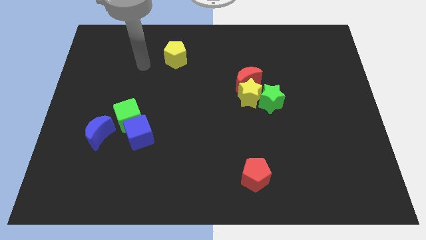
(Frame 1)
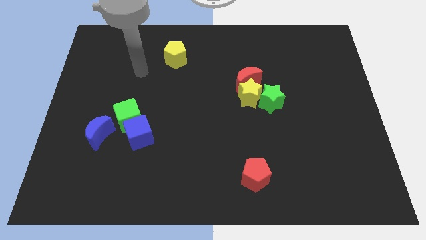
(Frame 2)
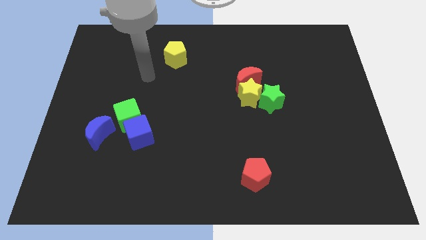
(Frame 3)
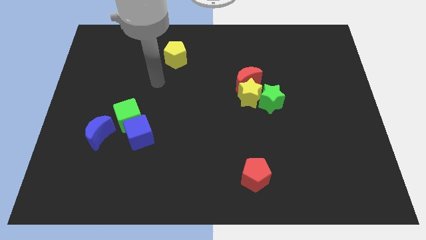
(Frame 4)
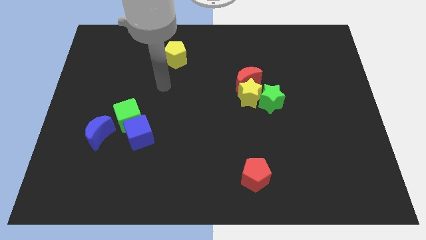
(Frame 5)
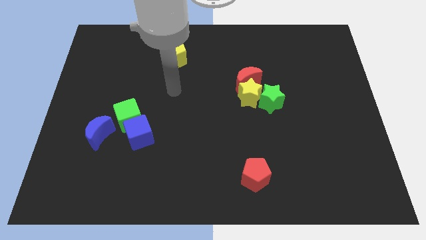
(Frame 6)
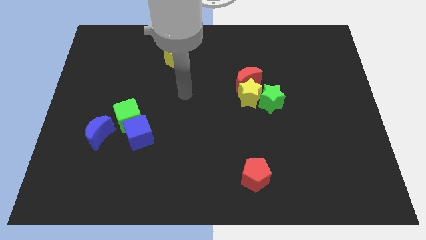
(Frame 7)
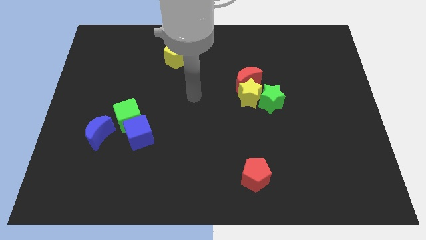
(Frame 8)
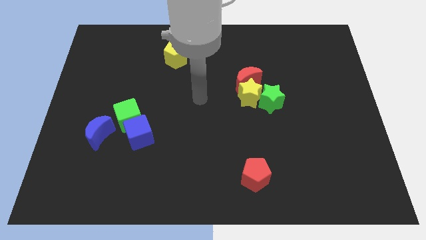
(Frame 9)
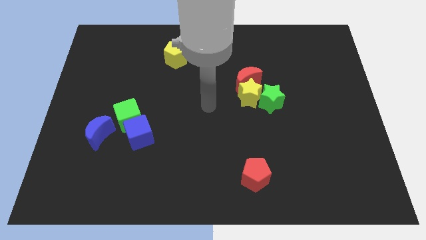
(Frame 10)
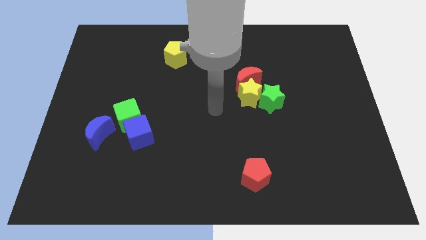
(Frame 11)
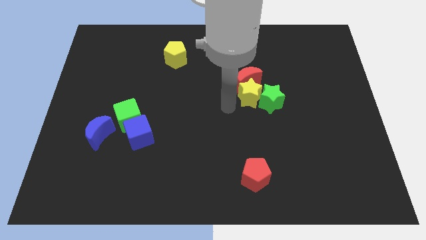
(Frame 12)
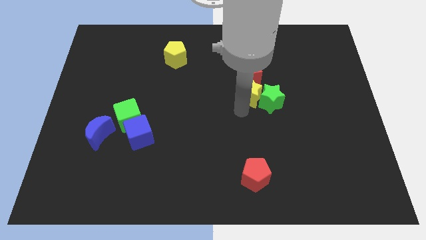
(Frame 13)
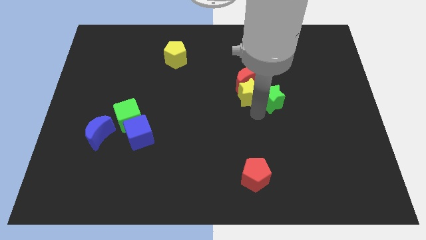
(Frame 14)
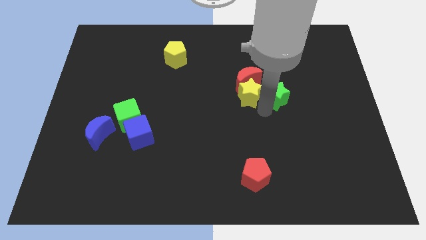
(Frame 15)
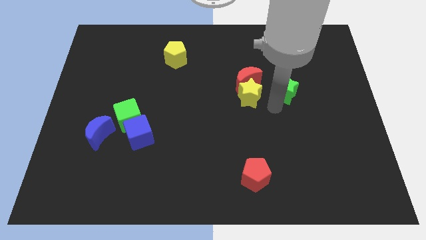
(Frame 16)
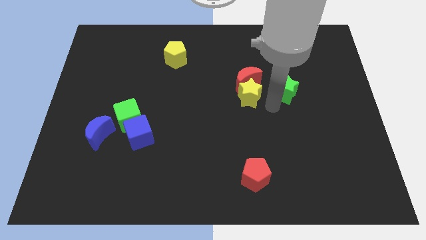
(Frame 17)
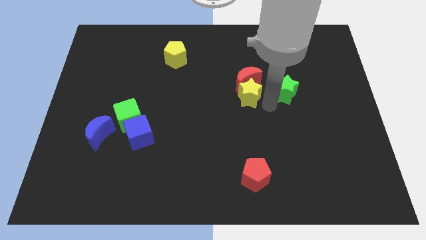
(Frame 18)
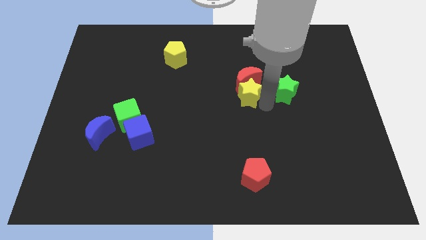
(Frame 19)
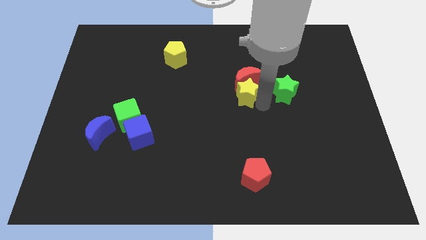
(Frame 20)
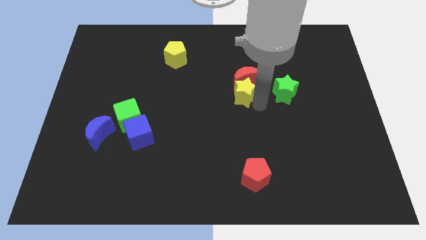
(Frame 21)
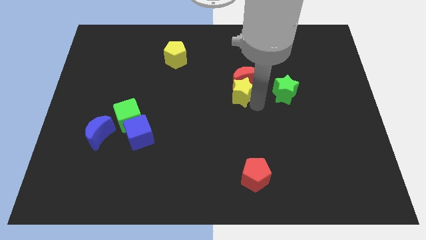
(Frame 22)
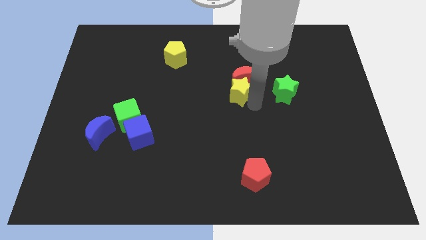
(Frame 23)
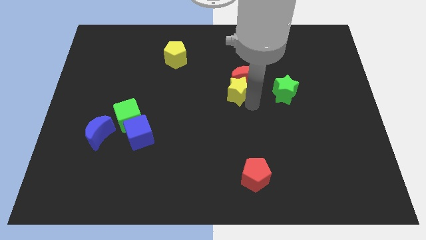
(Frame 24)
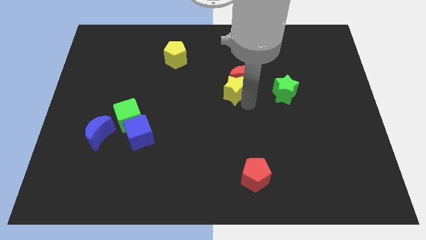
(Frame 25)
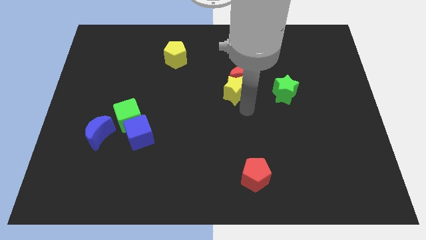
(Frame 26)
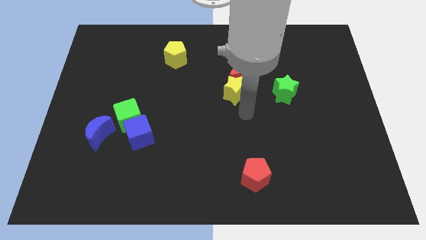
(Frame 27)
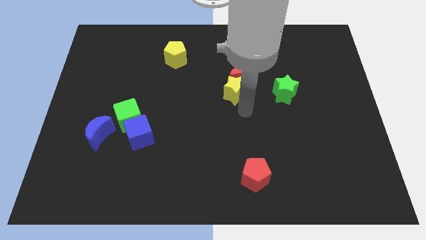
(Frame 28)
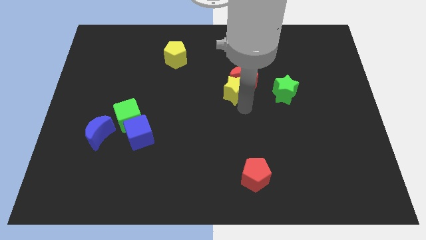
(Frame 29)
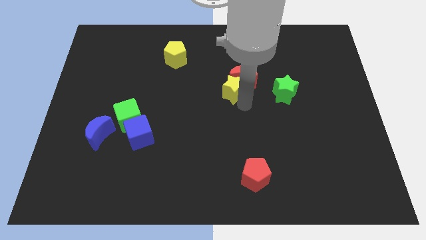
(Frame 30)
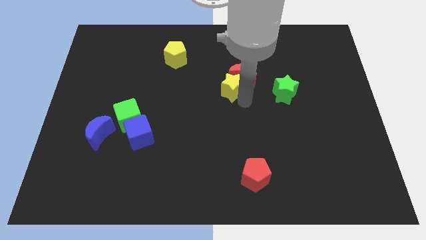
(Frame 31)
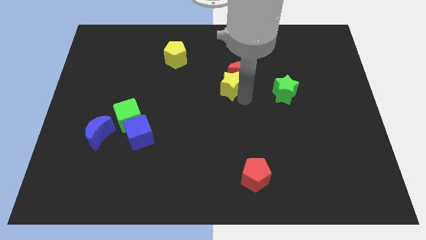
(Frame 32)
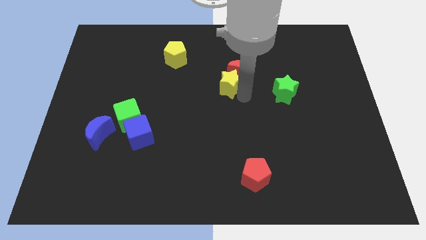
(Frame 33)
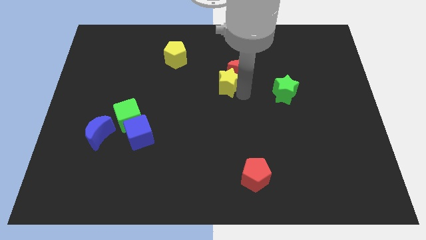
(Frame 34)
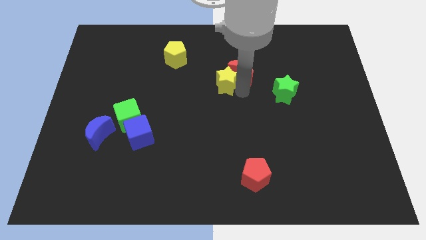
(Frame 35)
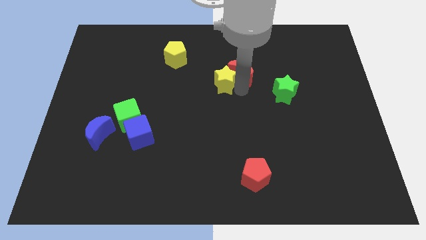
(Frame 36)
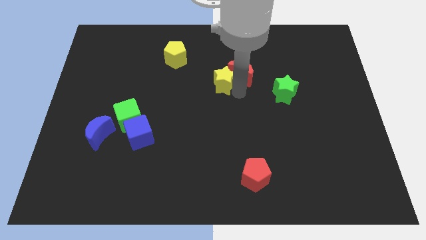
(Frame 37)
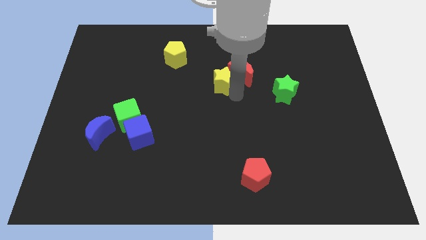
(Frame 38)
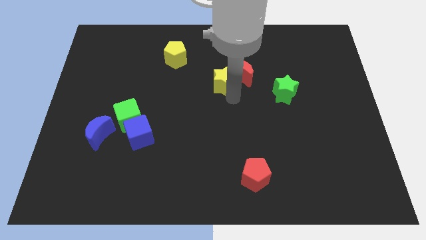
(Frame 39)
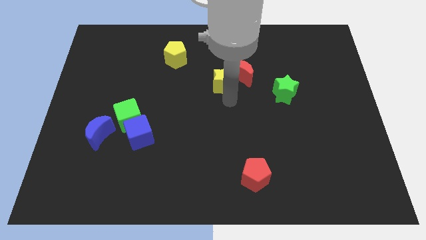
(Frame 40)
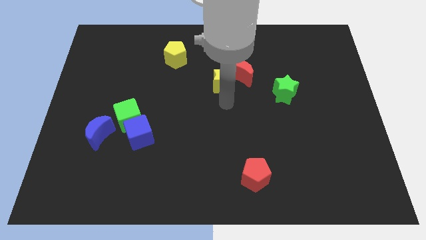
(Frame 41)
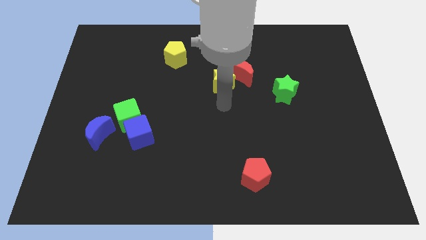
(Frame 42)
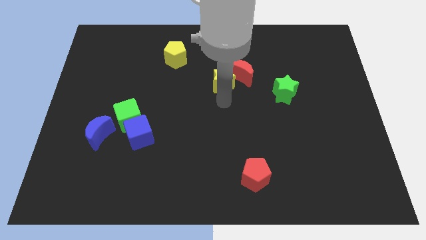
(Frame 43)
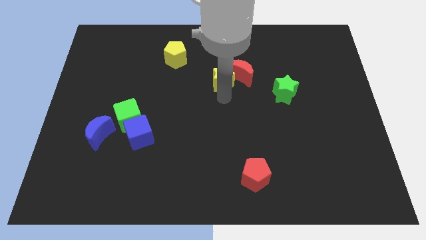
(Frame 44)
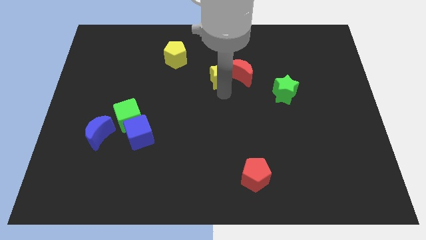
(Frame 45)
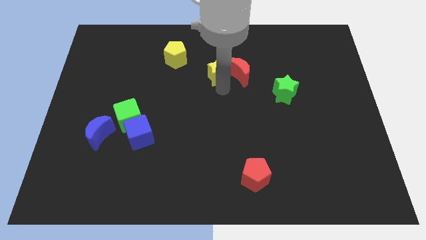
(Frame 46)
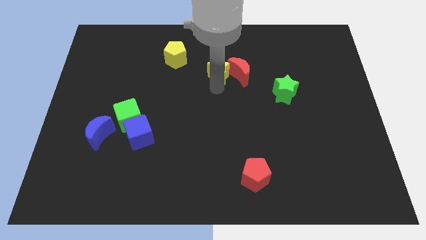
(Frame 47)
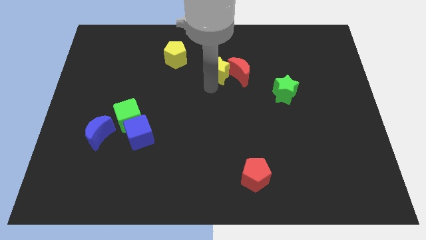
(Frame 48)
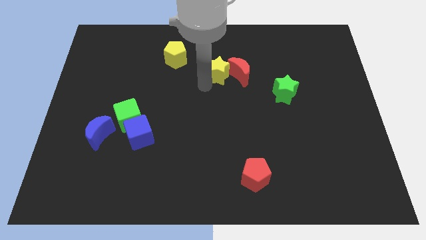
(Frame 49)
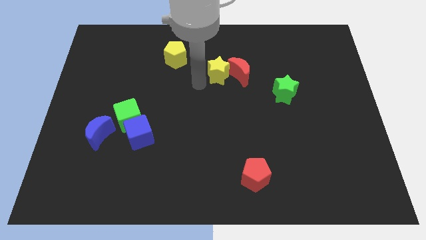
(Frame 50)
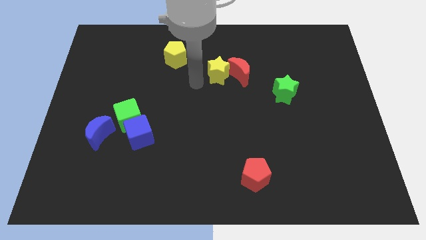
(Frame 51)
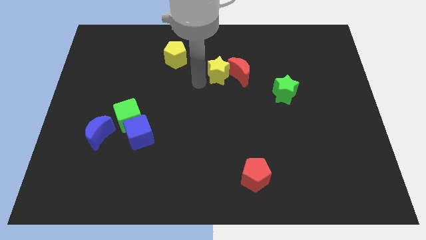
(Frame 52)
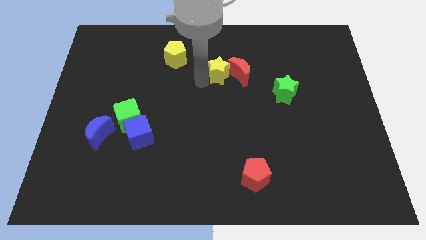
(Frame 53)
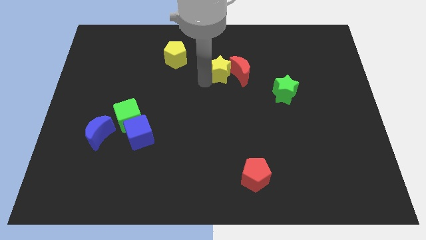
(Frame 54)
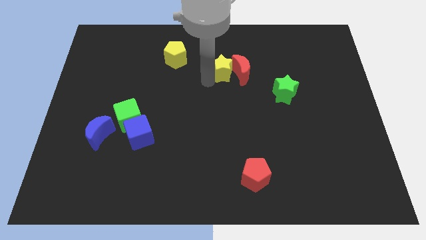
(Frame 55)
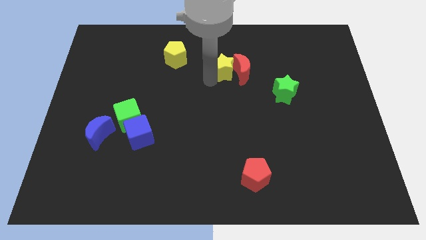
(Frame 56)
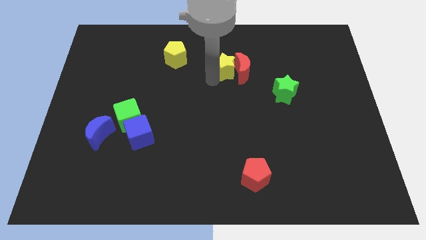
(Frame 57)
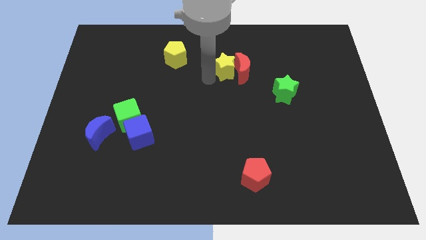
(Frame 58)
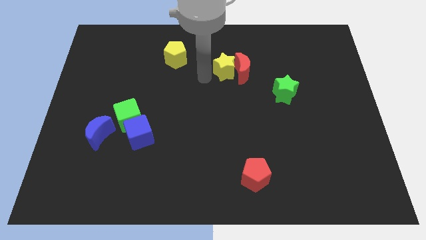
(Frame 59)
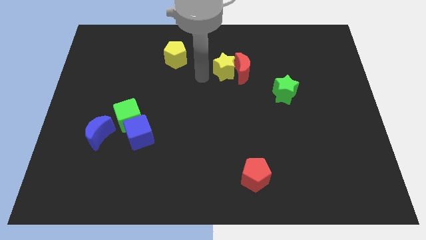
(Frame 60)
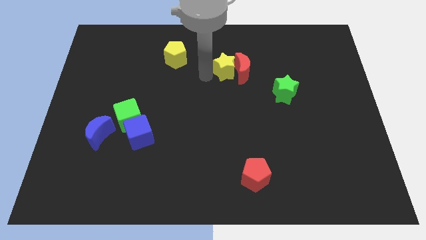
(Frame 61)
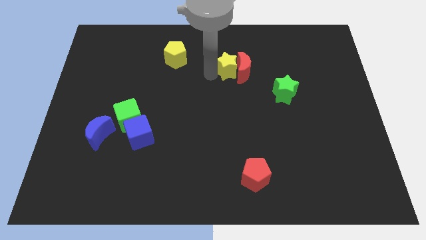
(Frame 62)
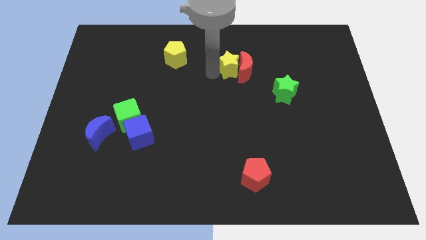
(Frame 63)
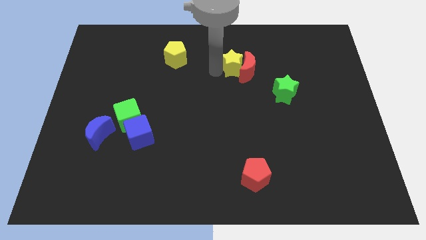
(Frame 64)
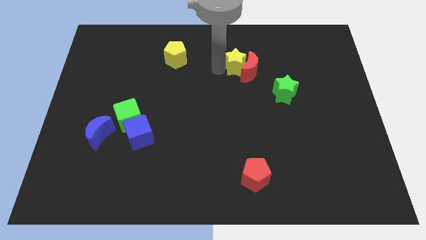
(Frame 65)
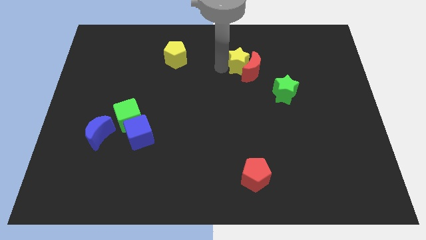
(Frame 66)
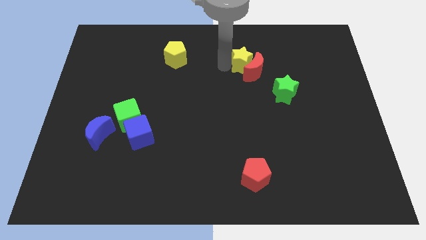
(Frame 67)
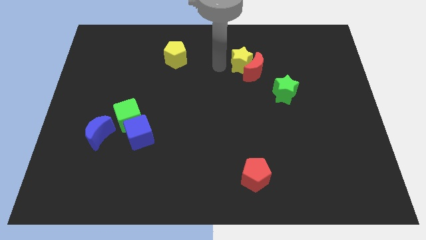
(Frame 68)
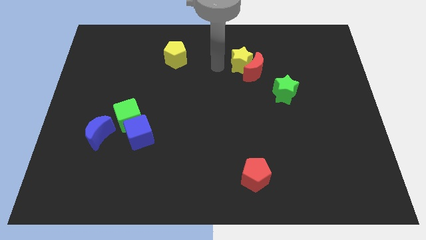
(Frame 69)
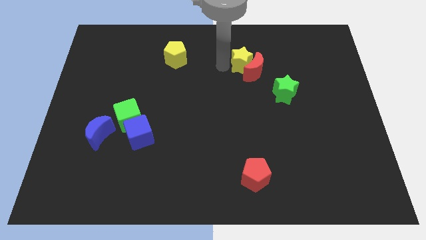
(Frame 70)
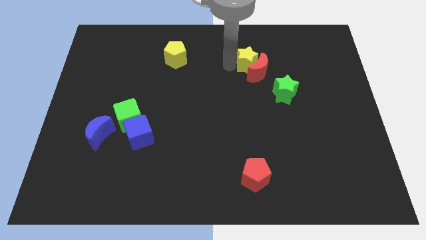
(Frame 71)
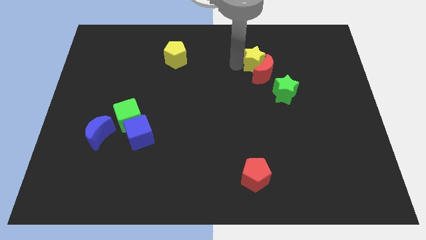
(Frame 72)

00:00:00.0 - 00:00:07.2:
slightly slide the yellow star up and right

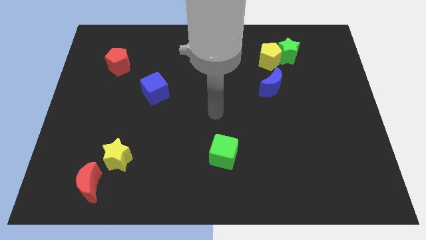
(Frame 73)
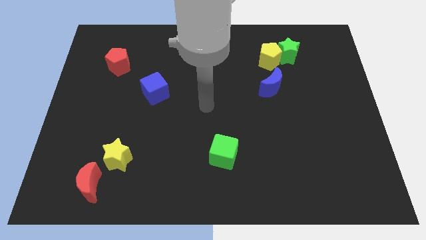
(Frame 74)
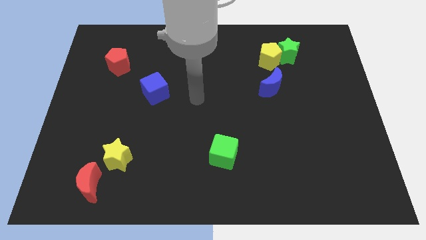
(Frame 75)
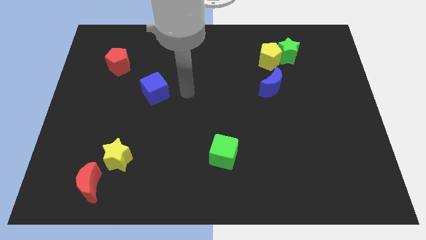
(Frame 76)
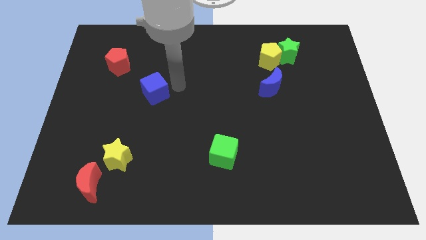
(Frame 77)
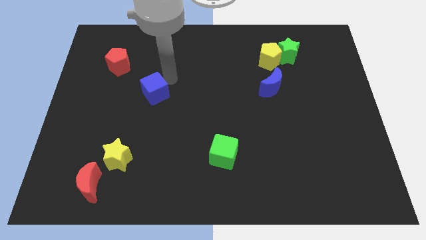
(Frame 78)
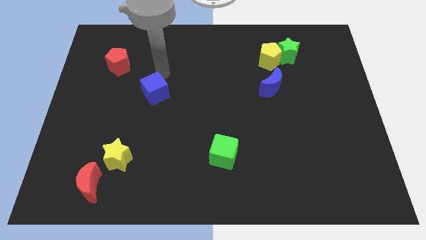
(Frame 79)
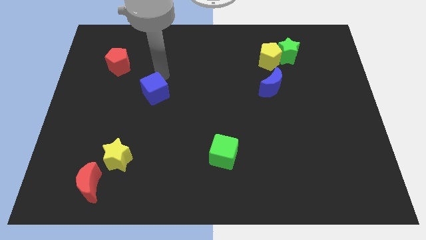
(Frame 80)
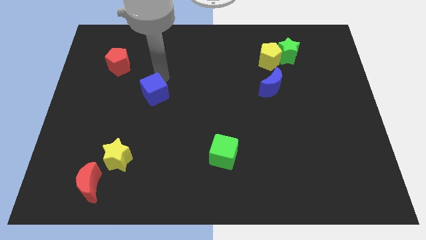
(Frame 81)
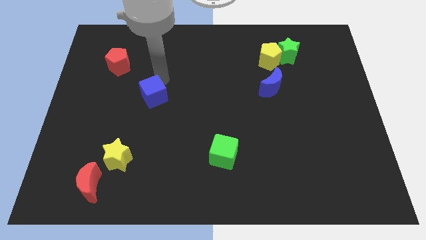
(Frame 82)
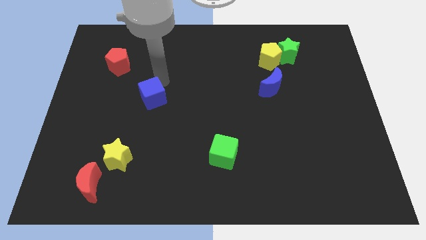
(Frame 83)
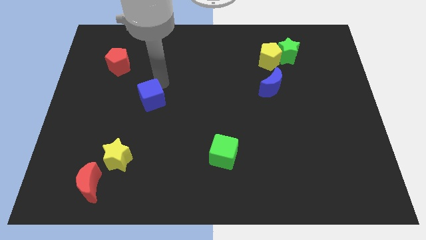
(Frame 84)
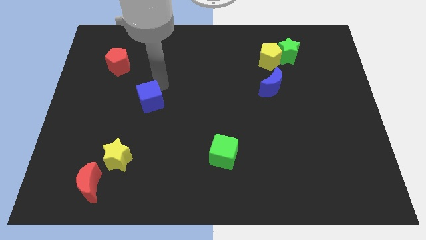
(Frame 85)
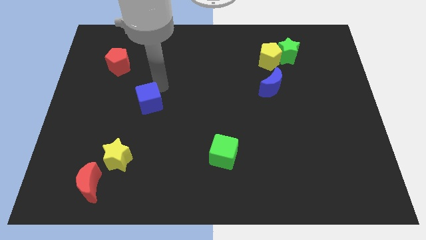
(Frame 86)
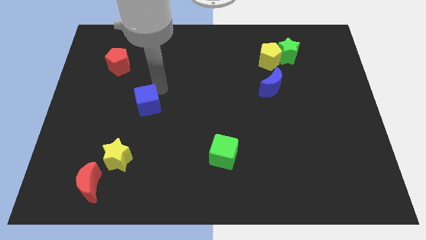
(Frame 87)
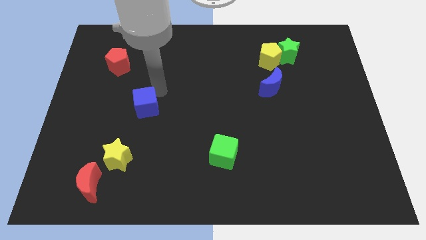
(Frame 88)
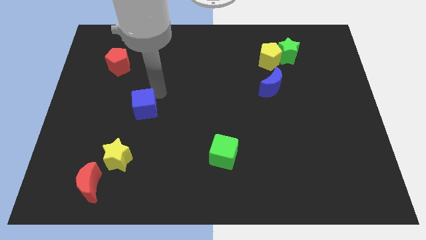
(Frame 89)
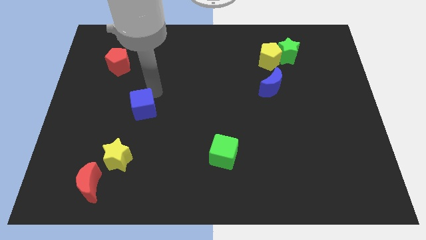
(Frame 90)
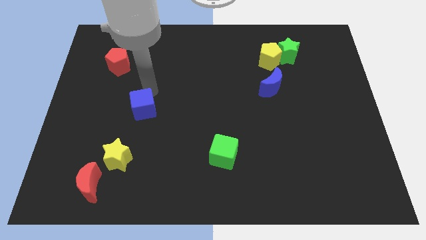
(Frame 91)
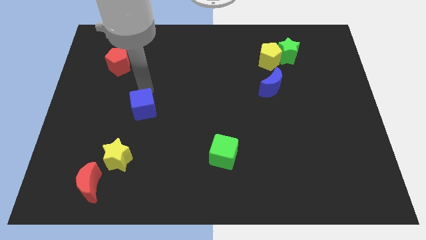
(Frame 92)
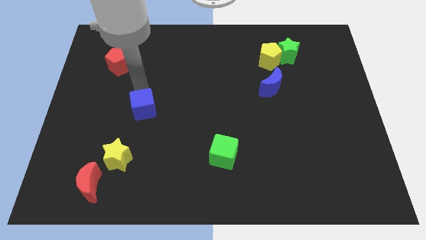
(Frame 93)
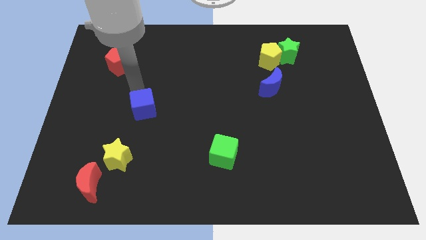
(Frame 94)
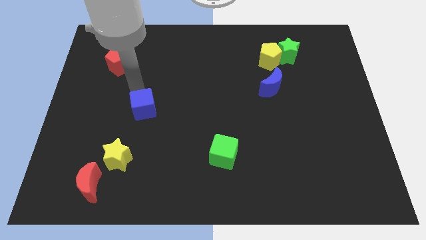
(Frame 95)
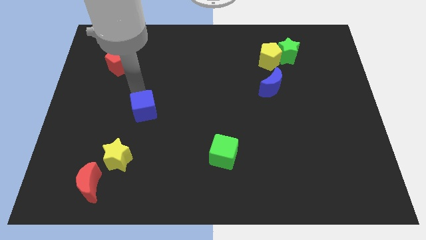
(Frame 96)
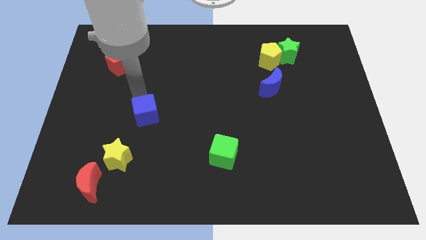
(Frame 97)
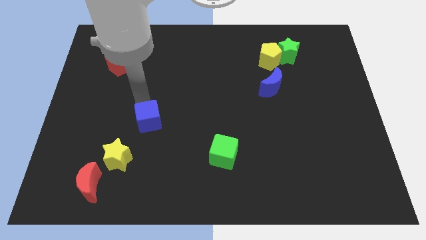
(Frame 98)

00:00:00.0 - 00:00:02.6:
slide the blue cube downwards somewhat
